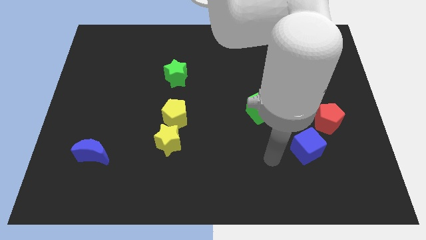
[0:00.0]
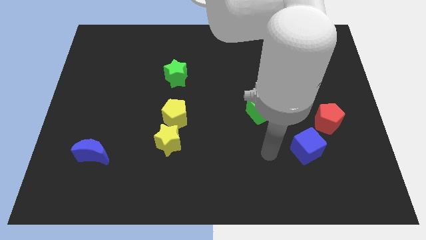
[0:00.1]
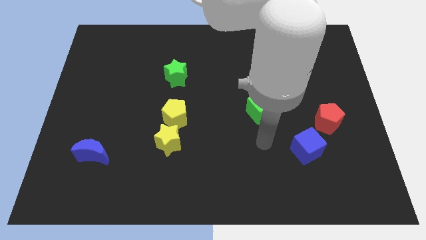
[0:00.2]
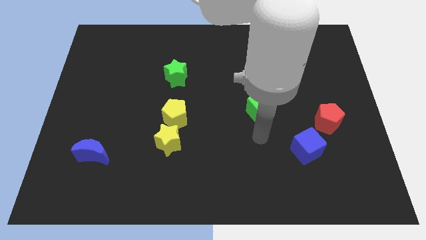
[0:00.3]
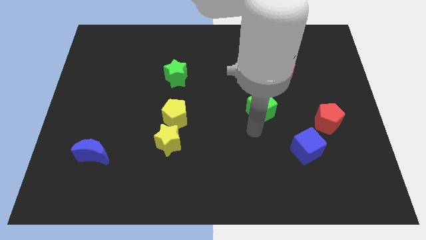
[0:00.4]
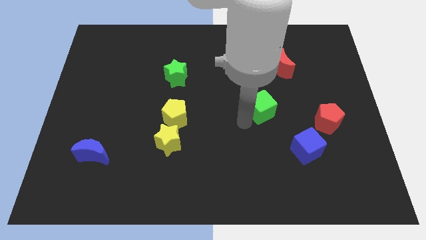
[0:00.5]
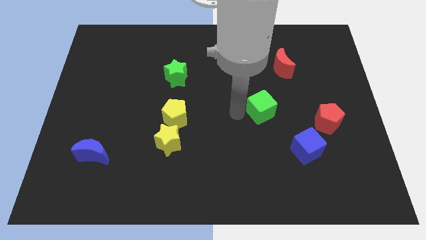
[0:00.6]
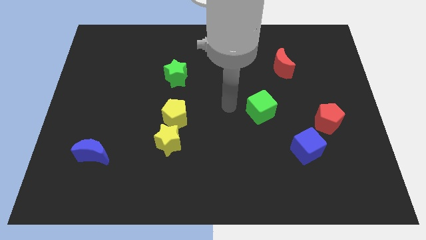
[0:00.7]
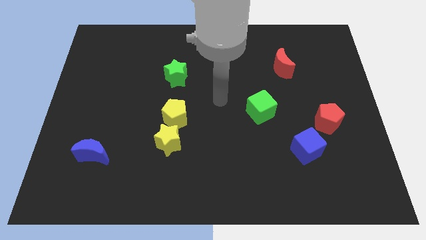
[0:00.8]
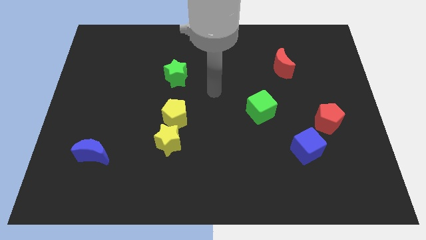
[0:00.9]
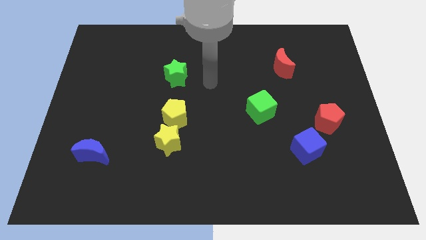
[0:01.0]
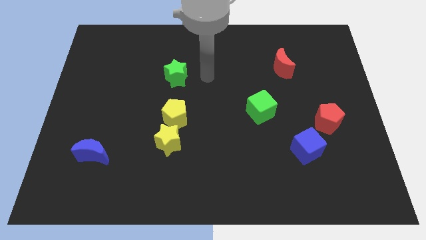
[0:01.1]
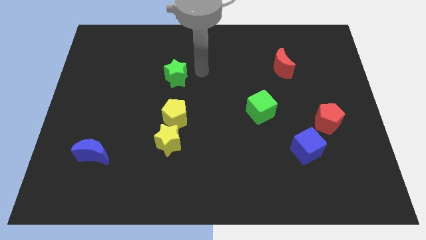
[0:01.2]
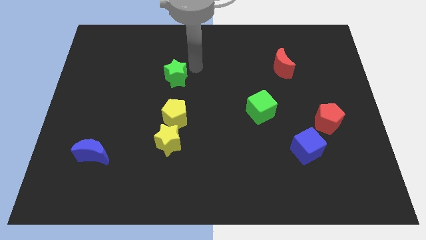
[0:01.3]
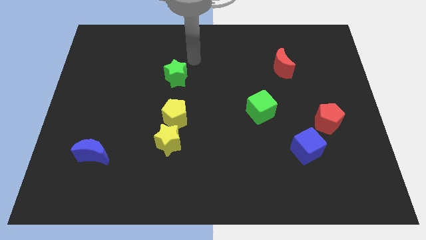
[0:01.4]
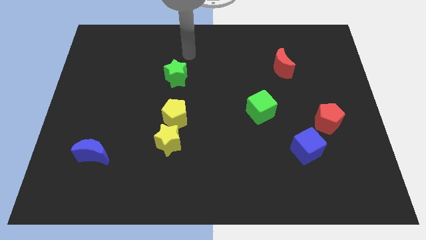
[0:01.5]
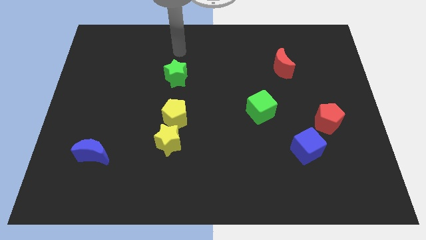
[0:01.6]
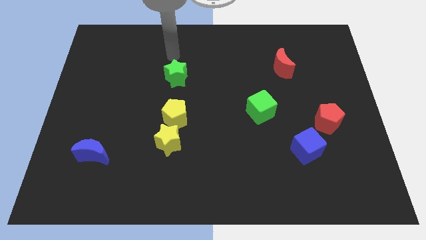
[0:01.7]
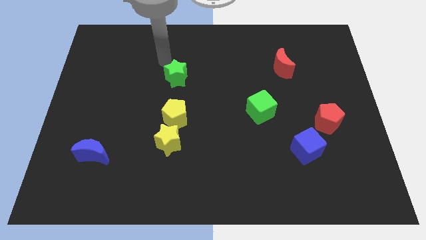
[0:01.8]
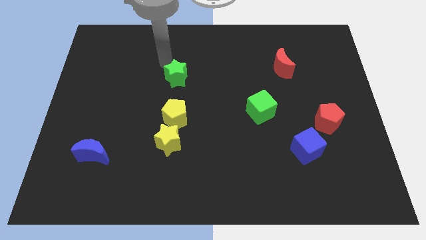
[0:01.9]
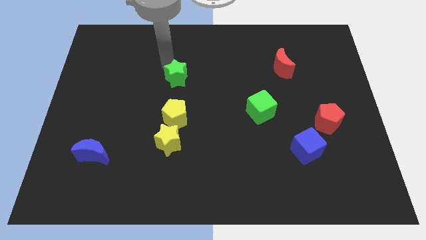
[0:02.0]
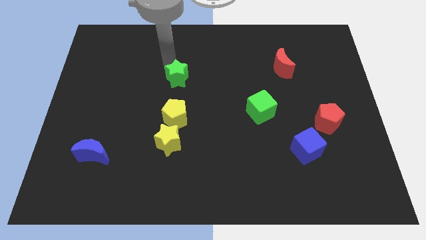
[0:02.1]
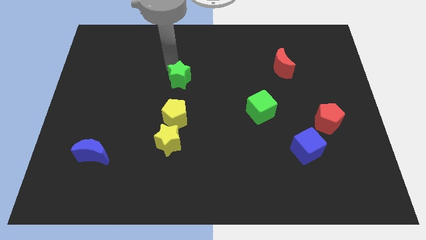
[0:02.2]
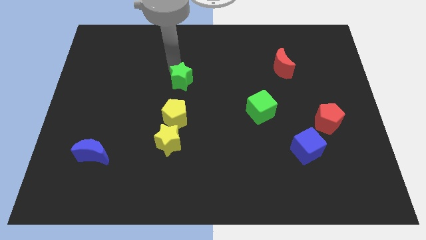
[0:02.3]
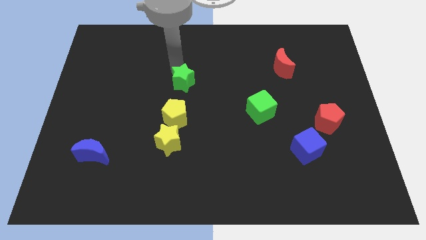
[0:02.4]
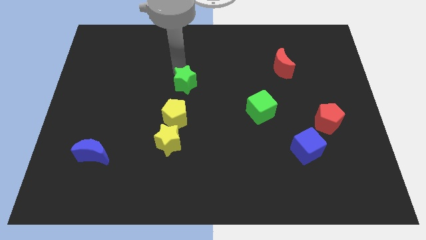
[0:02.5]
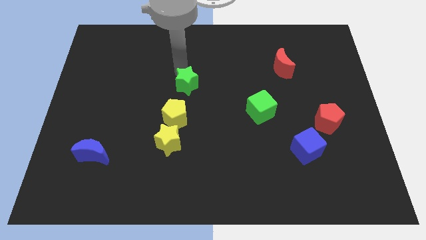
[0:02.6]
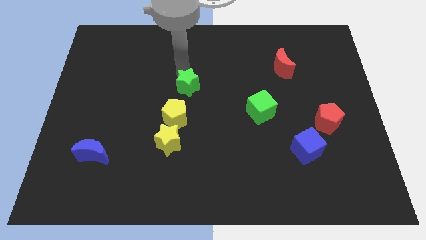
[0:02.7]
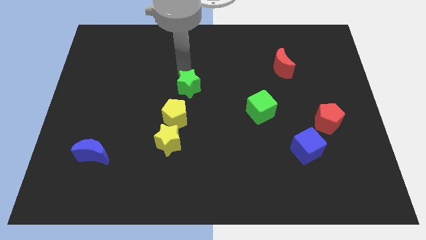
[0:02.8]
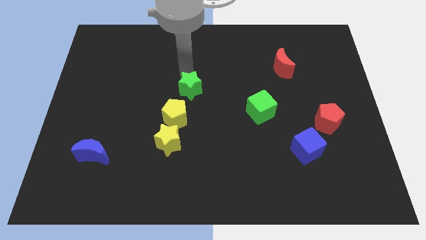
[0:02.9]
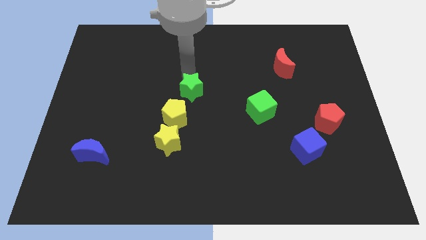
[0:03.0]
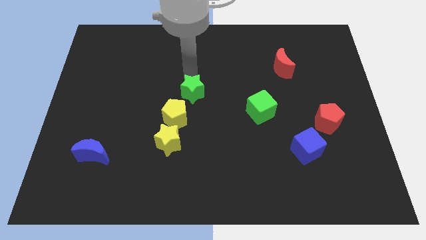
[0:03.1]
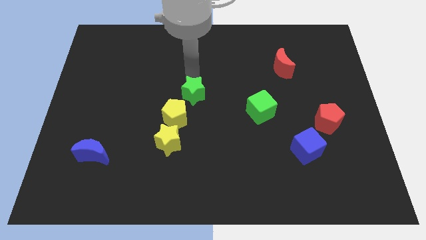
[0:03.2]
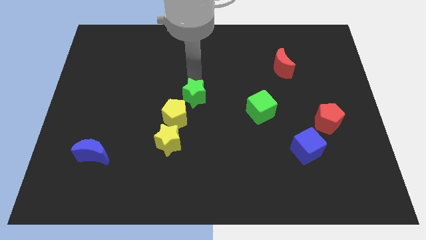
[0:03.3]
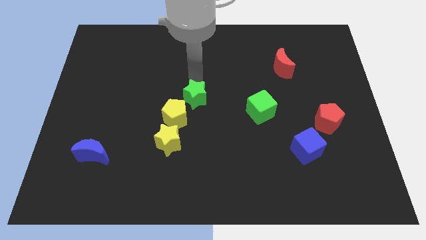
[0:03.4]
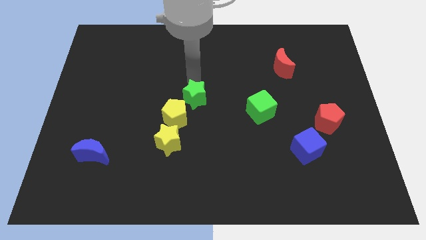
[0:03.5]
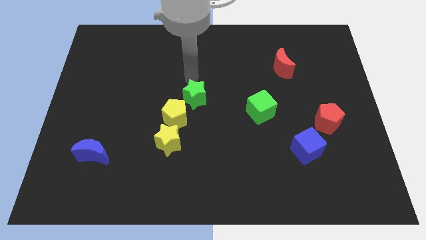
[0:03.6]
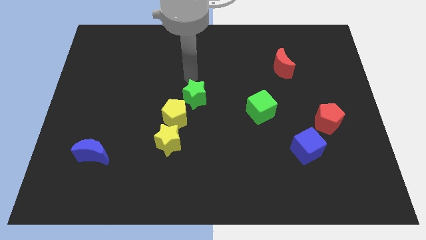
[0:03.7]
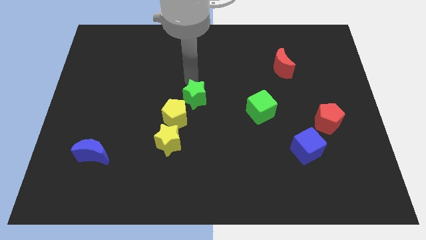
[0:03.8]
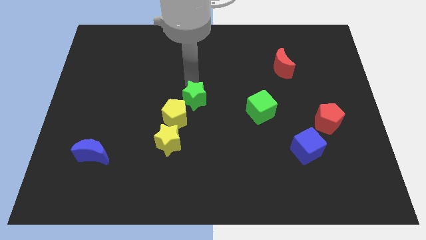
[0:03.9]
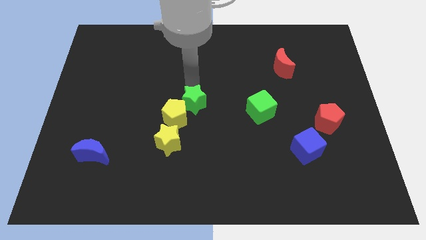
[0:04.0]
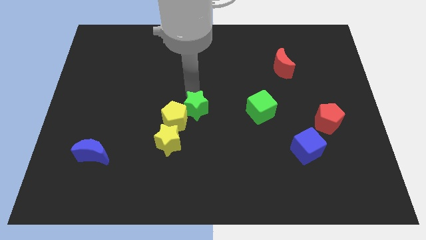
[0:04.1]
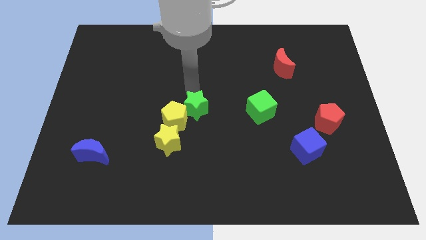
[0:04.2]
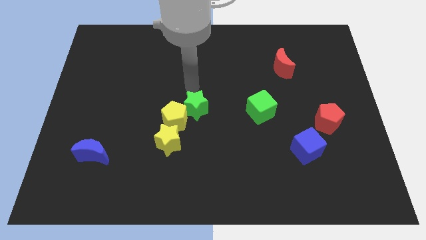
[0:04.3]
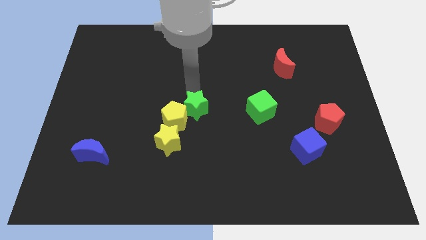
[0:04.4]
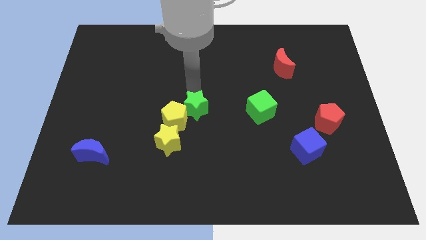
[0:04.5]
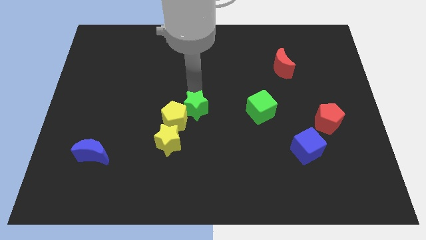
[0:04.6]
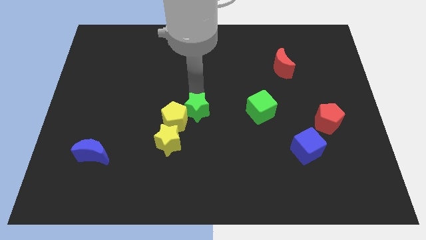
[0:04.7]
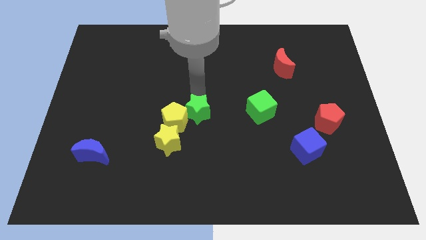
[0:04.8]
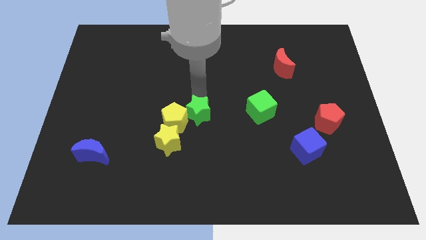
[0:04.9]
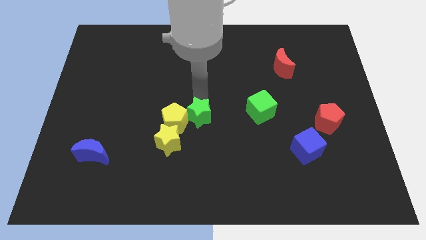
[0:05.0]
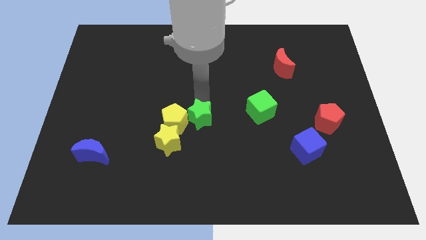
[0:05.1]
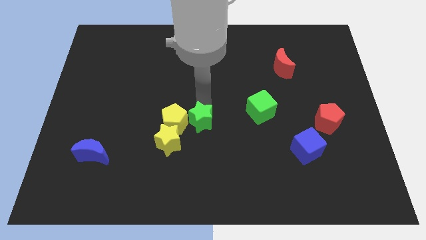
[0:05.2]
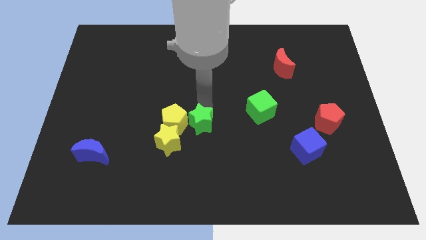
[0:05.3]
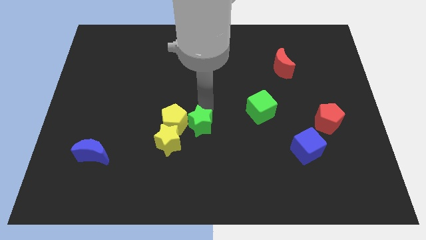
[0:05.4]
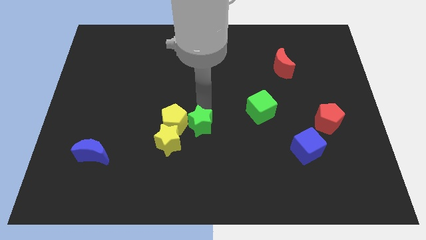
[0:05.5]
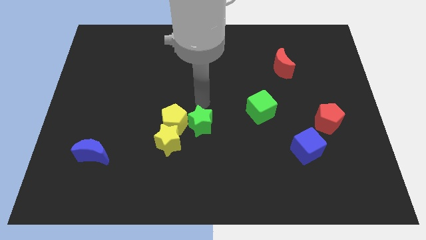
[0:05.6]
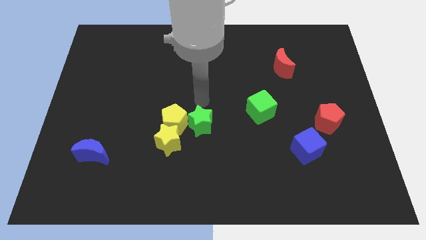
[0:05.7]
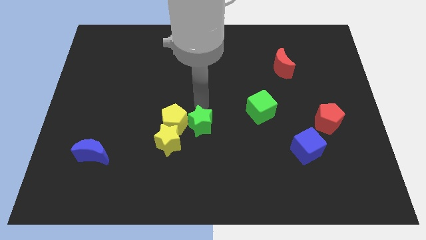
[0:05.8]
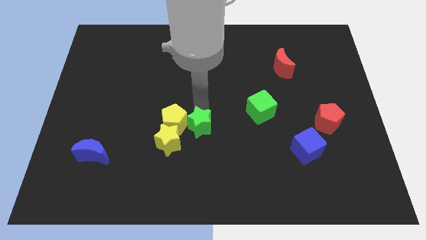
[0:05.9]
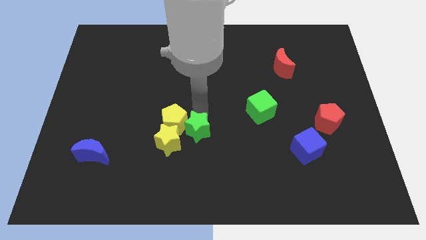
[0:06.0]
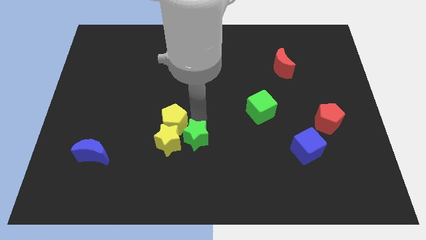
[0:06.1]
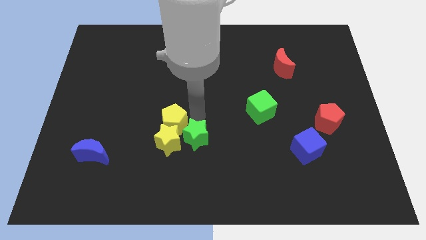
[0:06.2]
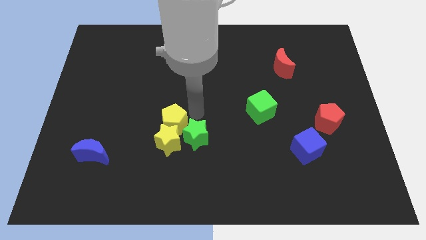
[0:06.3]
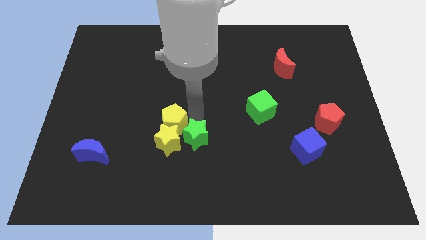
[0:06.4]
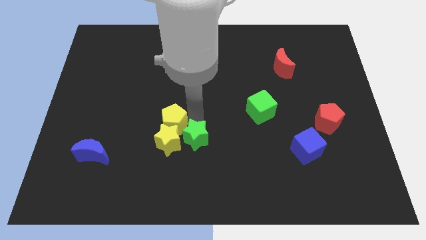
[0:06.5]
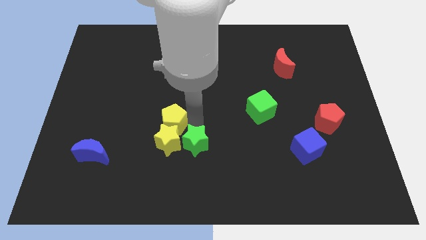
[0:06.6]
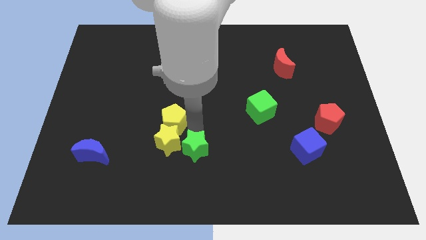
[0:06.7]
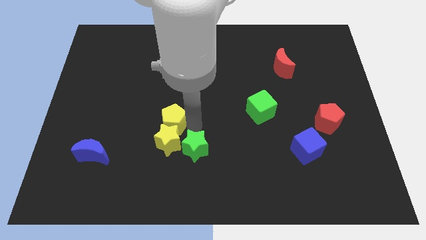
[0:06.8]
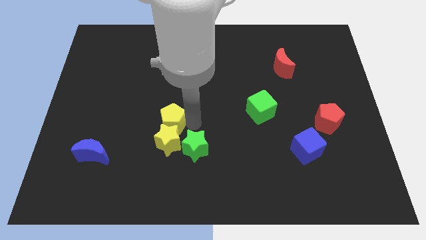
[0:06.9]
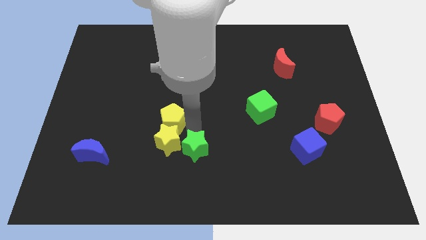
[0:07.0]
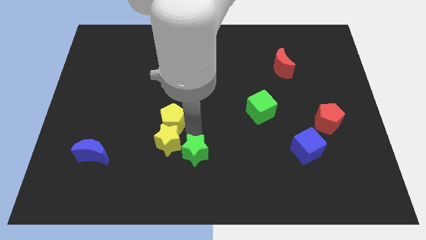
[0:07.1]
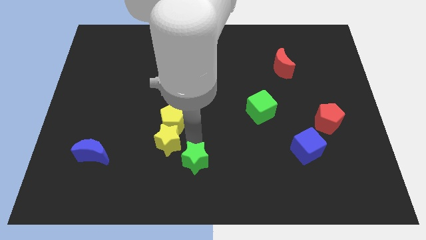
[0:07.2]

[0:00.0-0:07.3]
put the green star to the bottom side
